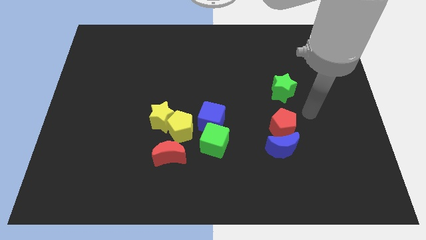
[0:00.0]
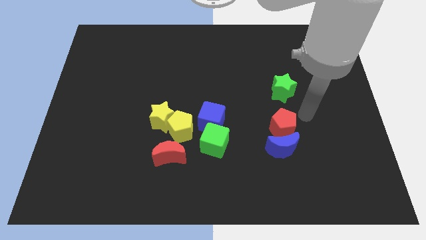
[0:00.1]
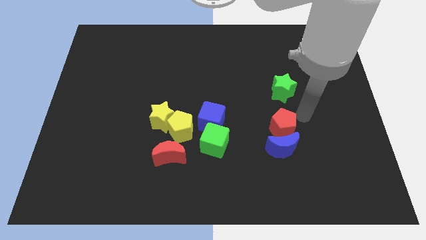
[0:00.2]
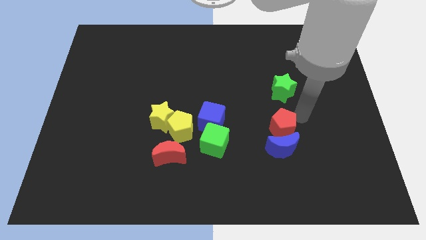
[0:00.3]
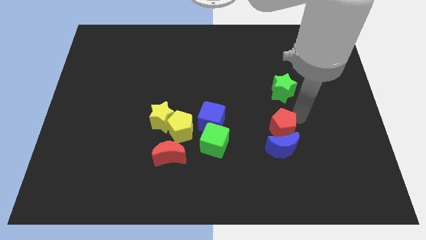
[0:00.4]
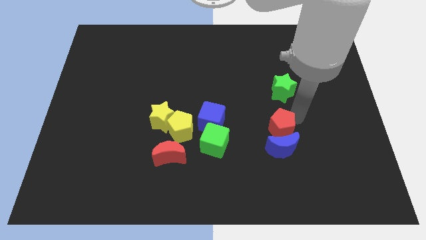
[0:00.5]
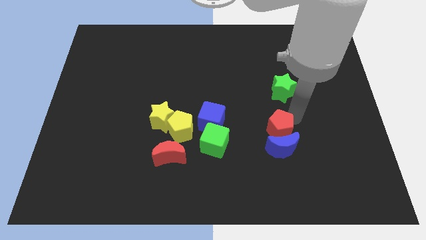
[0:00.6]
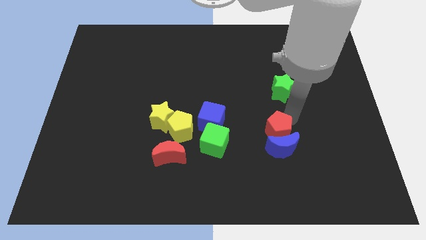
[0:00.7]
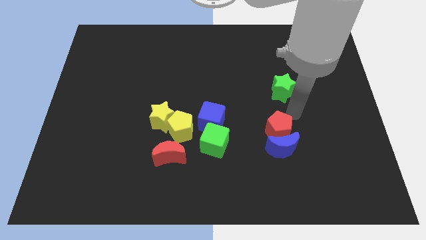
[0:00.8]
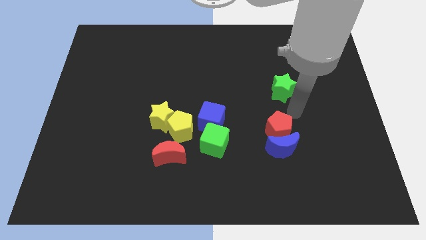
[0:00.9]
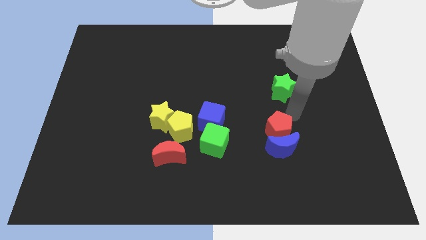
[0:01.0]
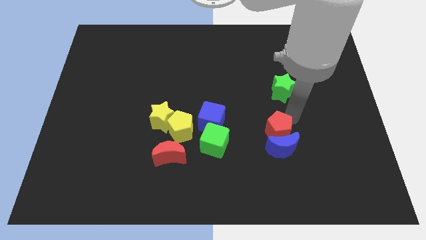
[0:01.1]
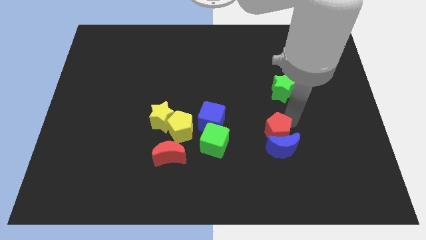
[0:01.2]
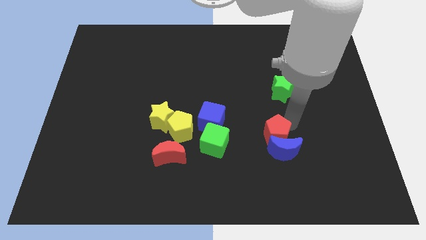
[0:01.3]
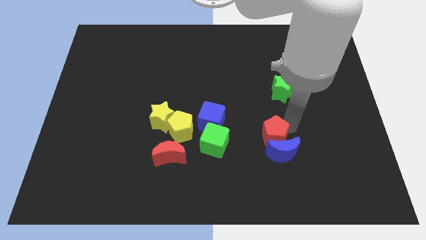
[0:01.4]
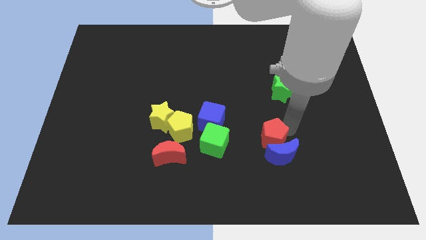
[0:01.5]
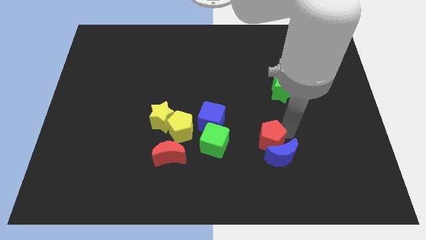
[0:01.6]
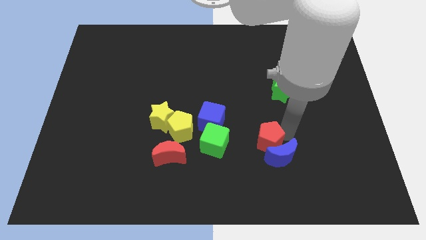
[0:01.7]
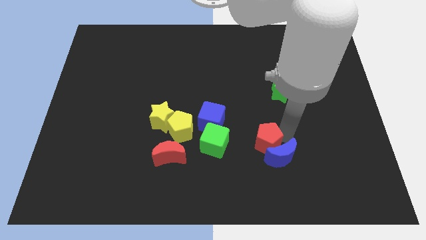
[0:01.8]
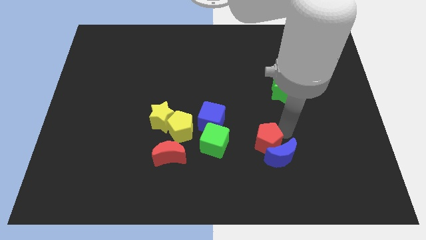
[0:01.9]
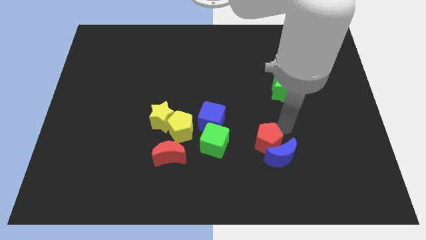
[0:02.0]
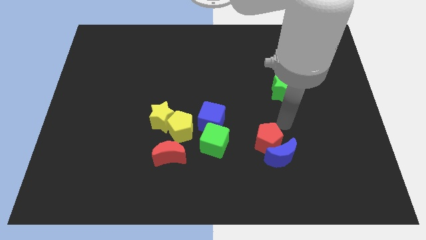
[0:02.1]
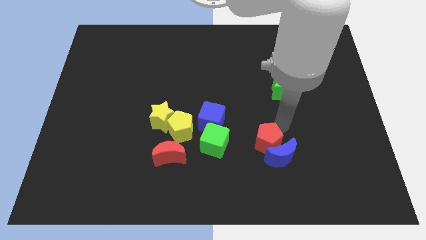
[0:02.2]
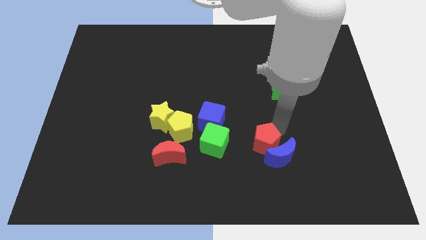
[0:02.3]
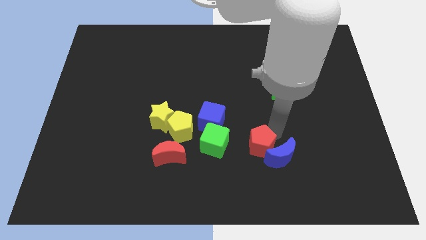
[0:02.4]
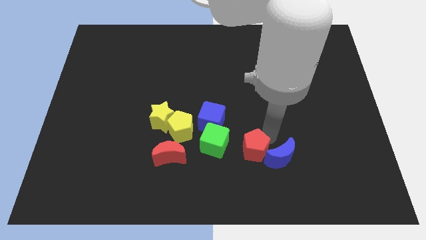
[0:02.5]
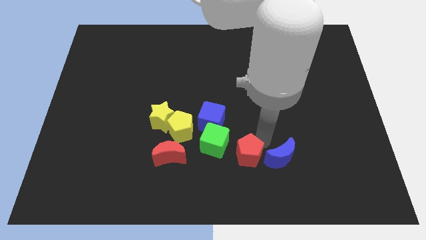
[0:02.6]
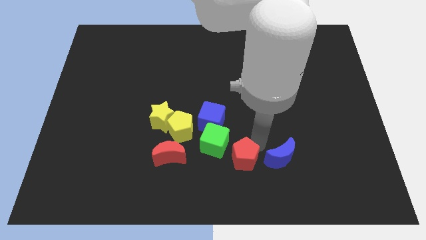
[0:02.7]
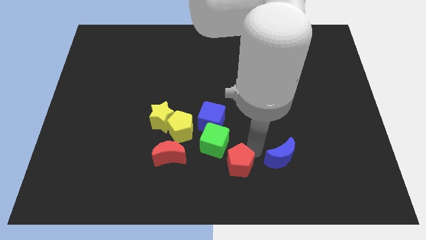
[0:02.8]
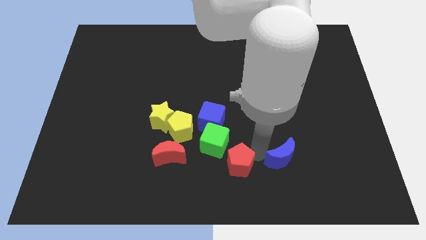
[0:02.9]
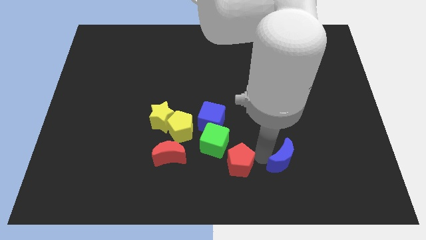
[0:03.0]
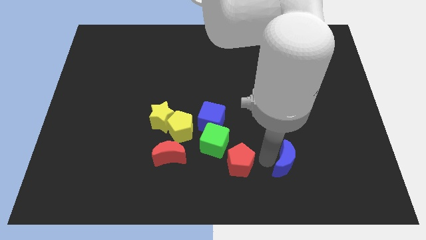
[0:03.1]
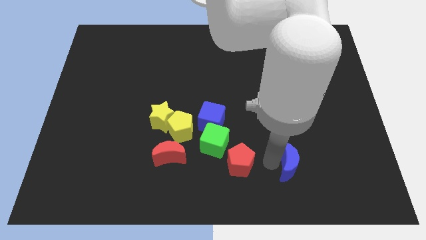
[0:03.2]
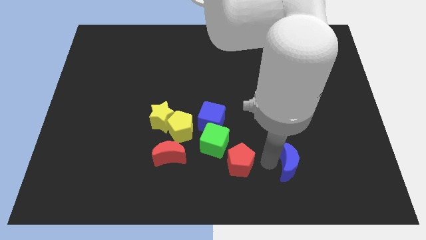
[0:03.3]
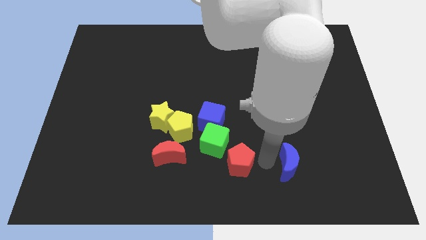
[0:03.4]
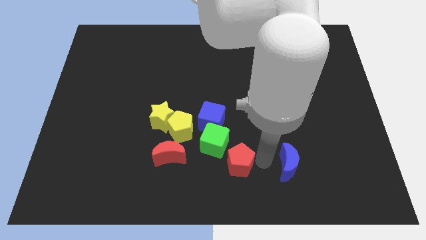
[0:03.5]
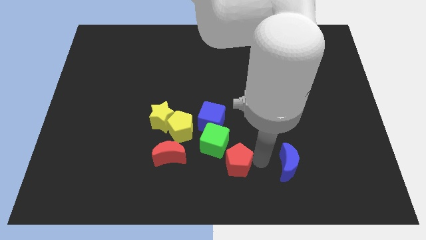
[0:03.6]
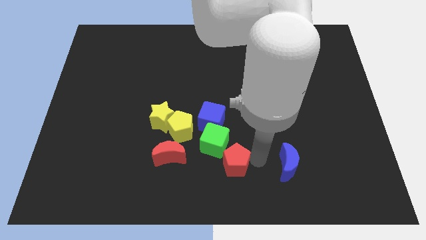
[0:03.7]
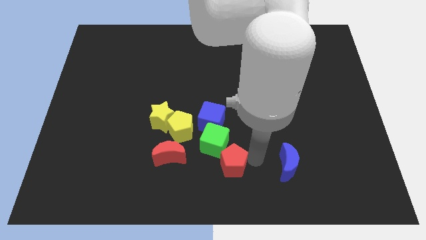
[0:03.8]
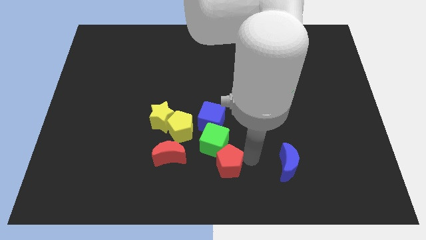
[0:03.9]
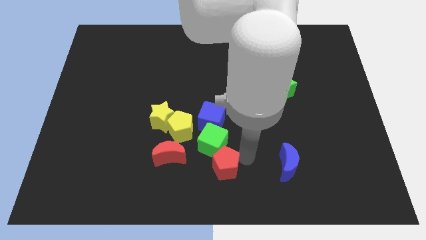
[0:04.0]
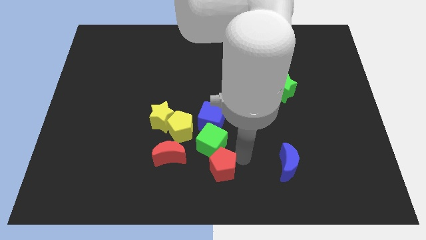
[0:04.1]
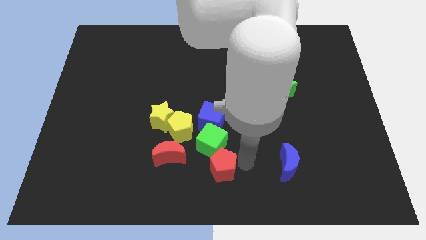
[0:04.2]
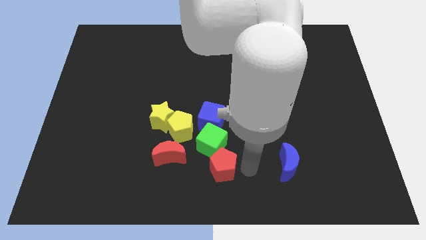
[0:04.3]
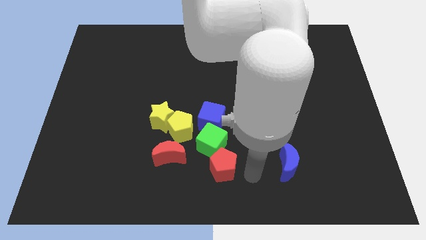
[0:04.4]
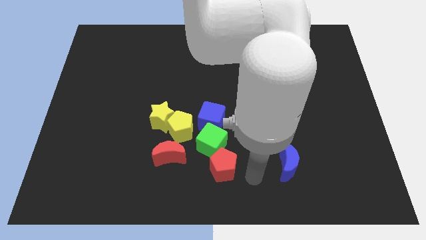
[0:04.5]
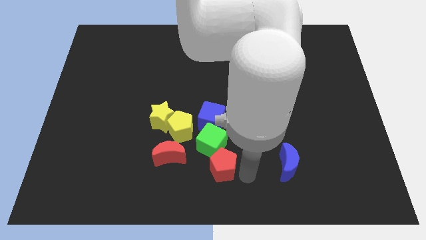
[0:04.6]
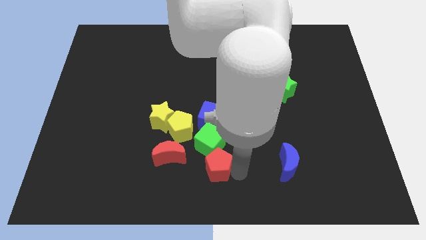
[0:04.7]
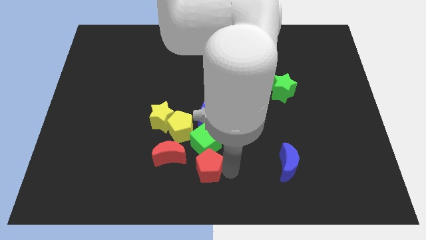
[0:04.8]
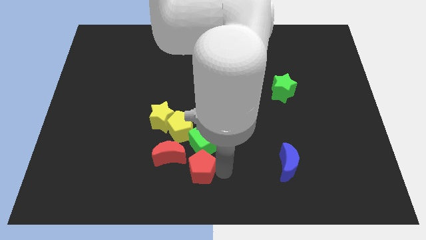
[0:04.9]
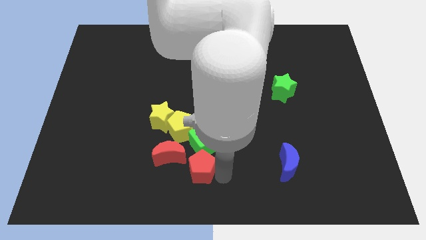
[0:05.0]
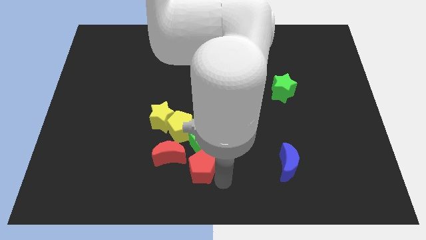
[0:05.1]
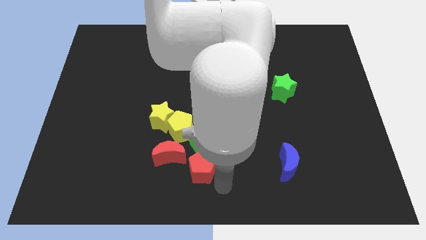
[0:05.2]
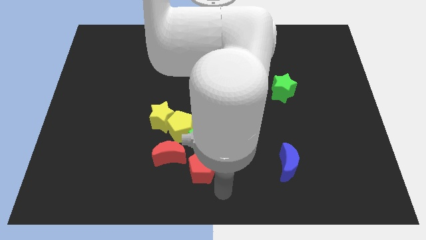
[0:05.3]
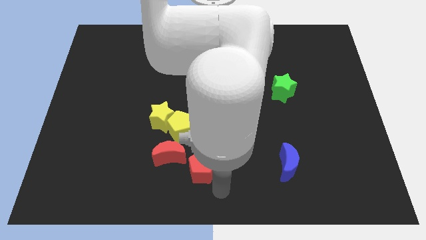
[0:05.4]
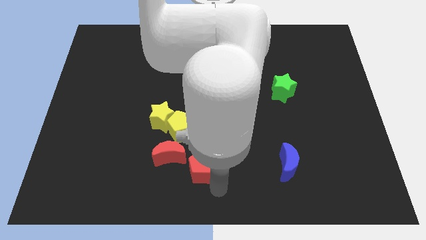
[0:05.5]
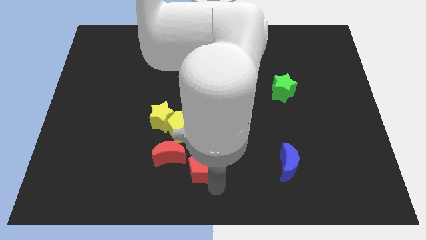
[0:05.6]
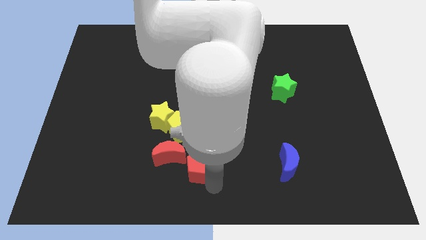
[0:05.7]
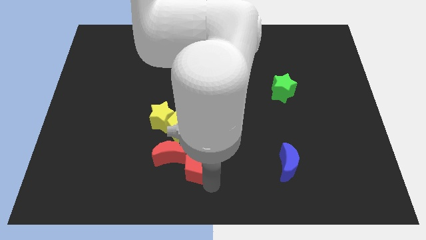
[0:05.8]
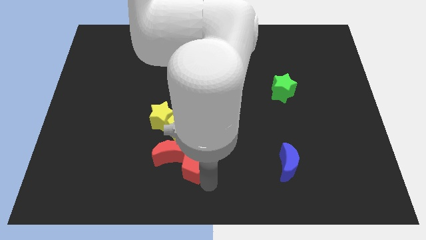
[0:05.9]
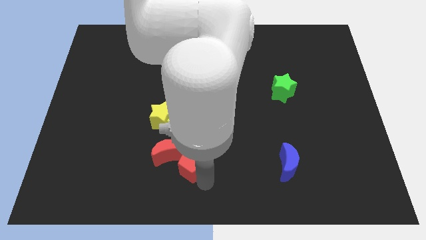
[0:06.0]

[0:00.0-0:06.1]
move the red pentagon close to the red moon
